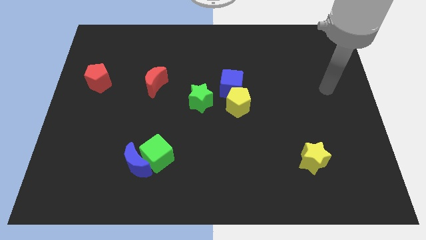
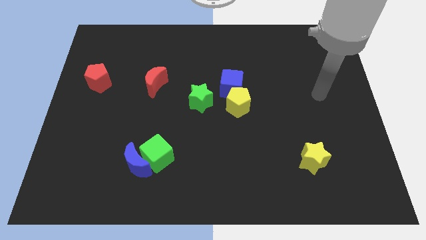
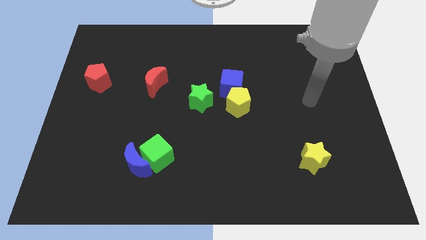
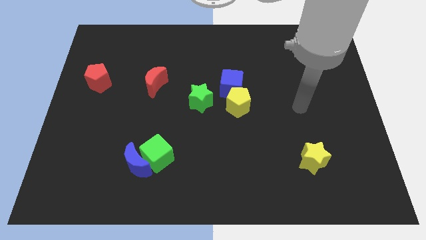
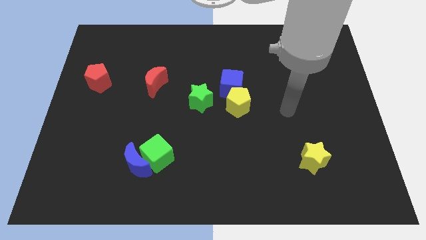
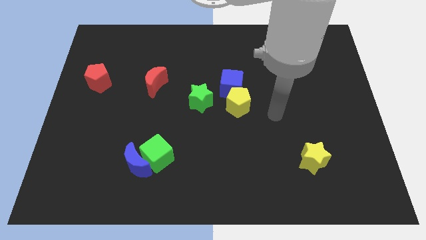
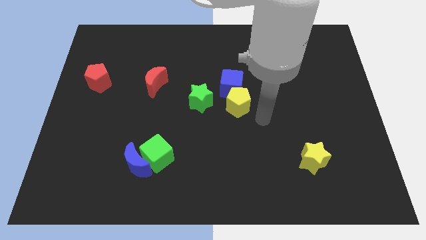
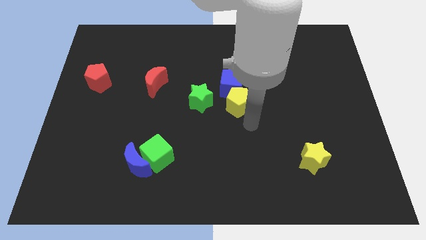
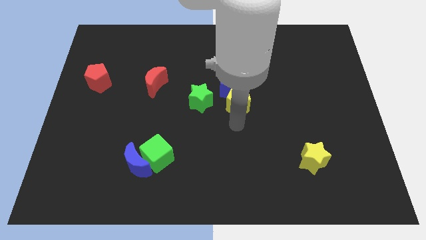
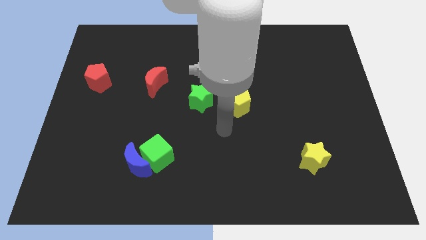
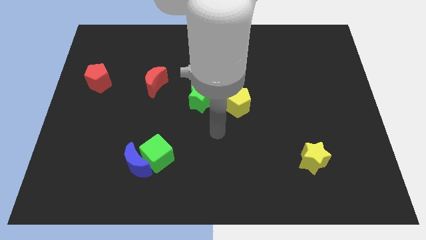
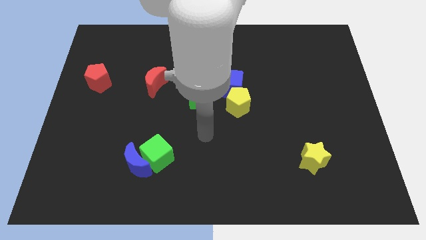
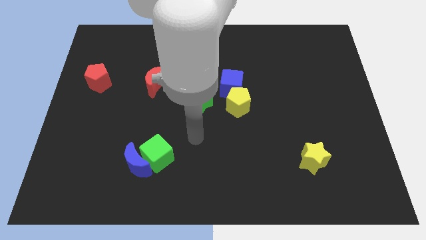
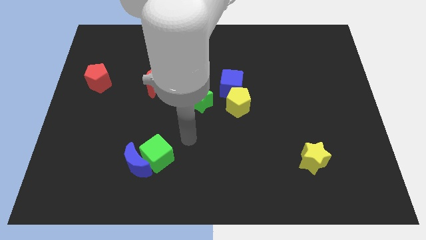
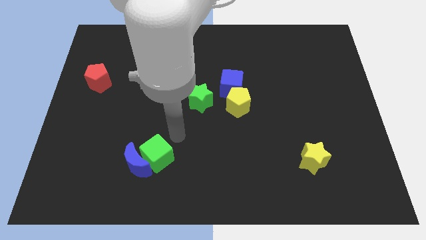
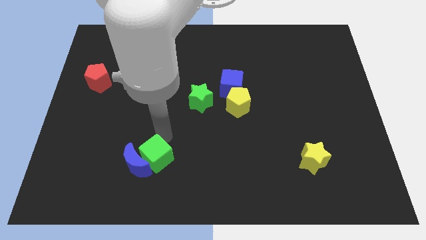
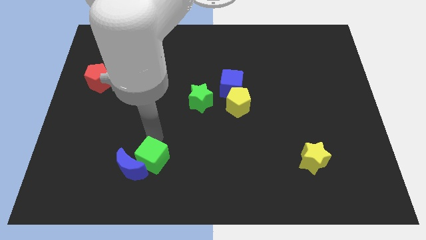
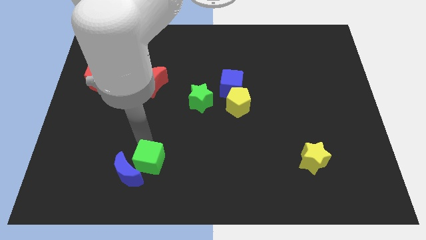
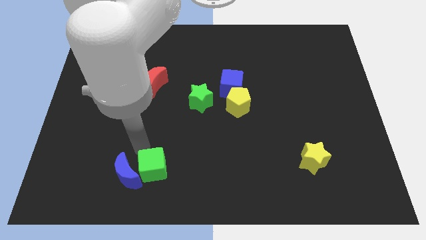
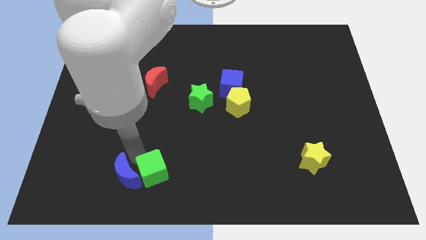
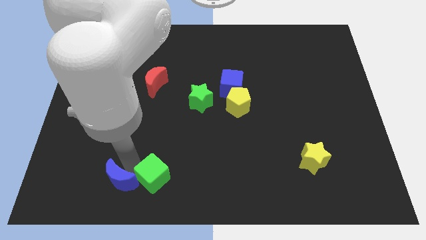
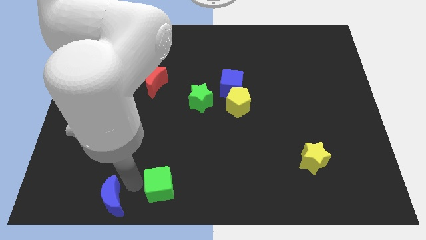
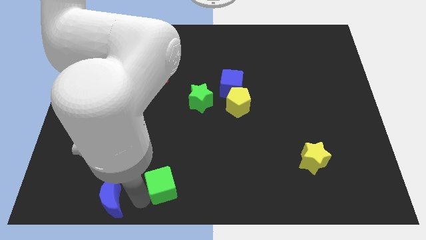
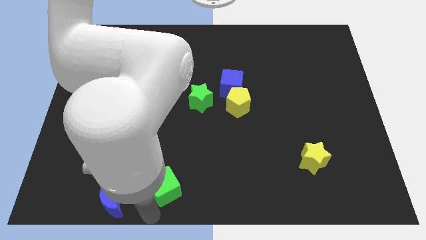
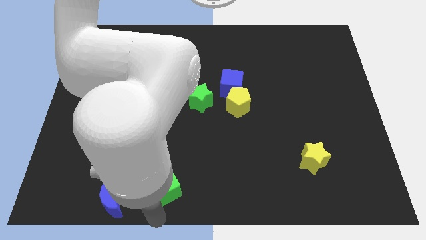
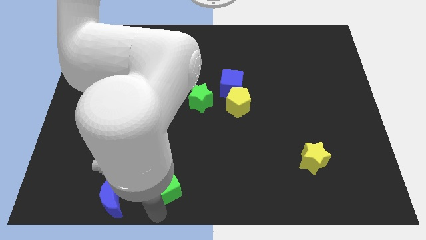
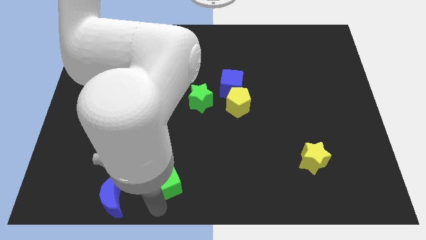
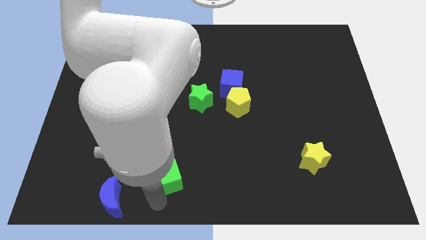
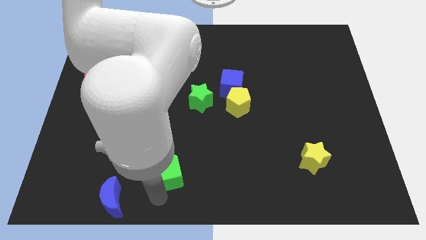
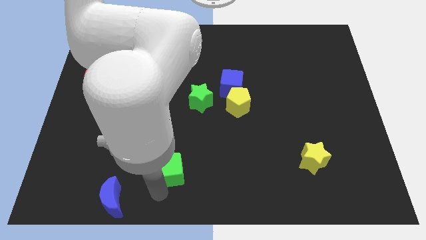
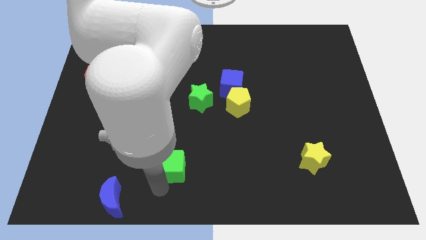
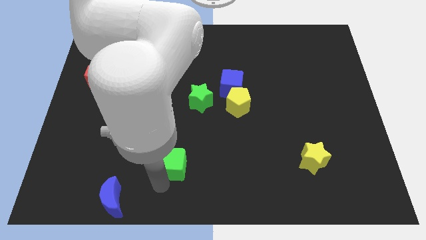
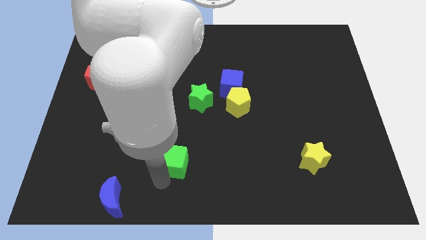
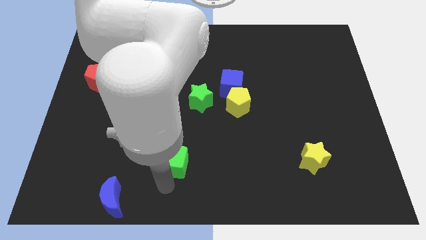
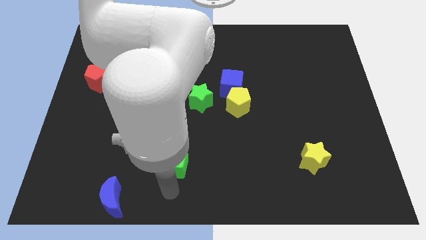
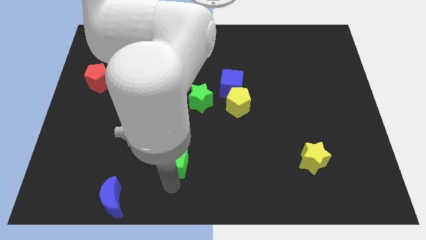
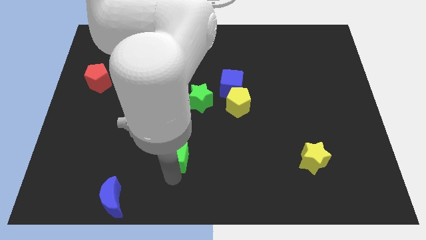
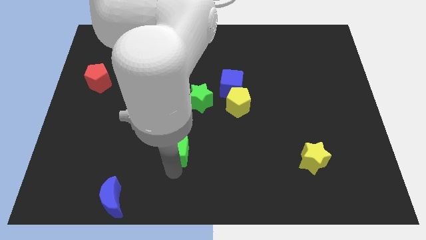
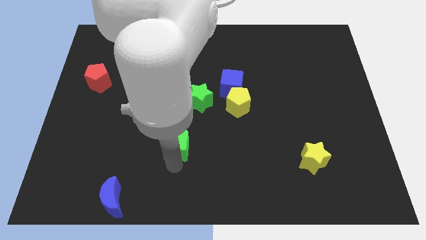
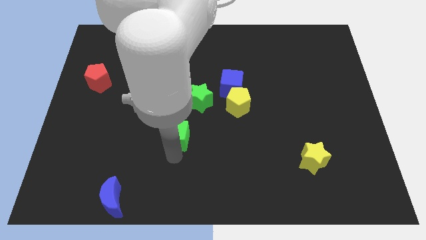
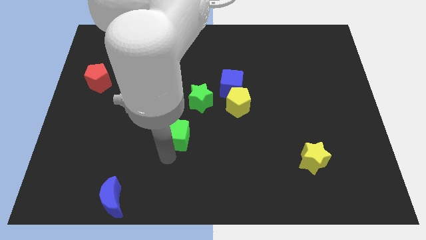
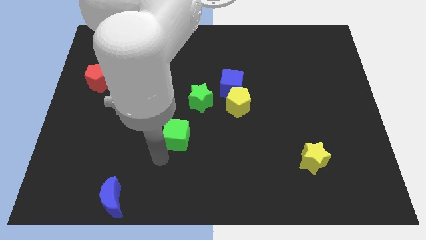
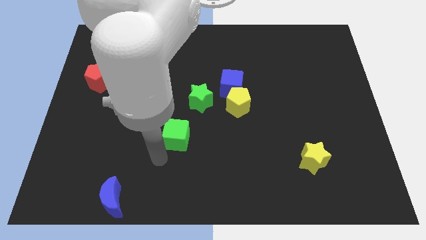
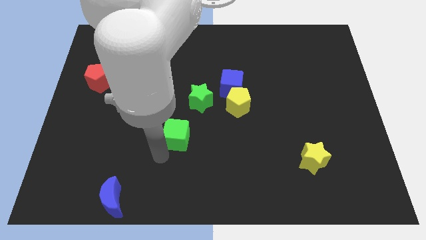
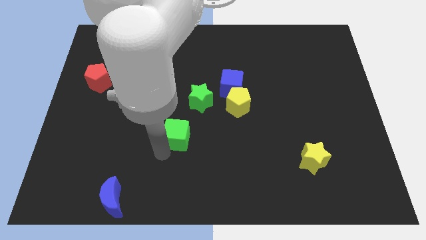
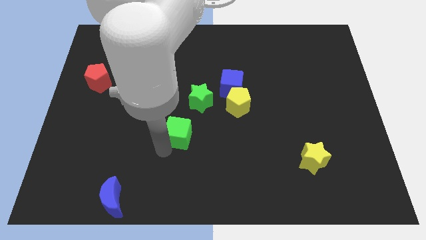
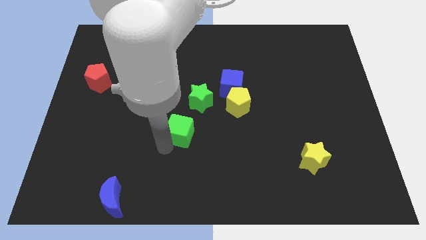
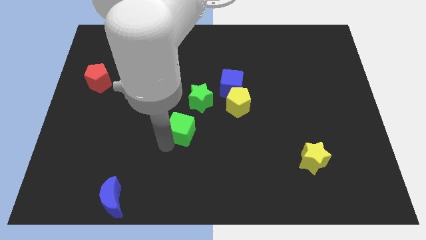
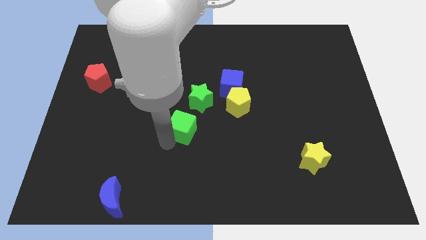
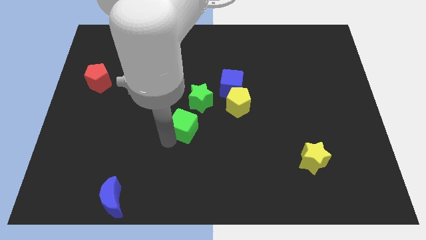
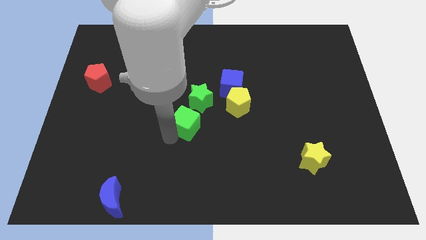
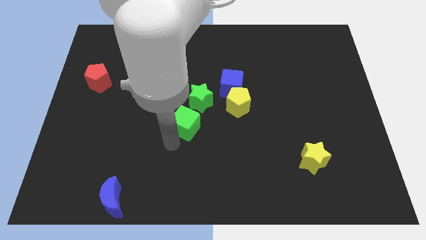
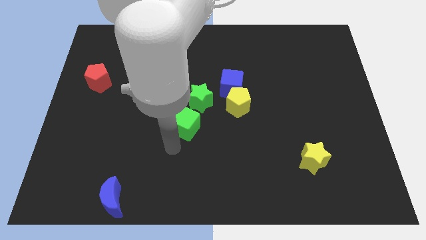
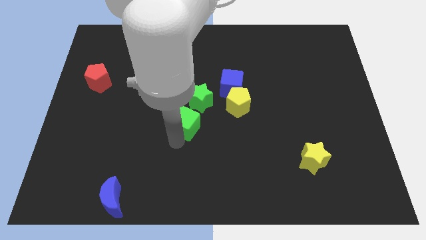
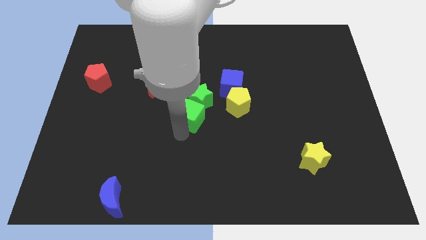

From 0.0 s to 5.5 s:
push the green cube to the green star
